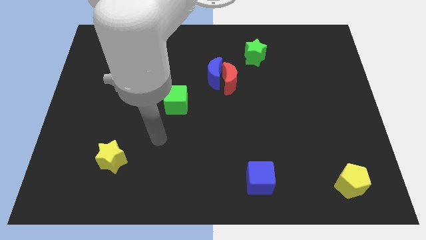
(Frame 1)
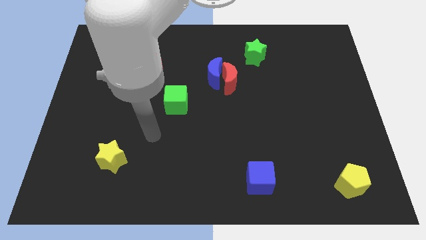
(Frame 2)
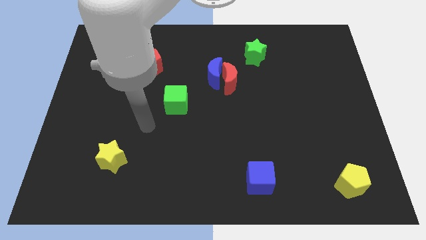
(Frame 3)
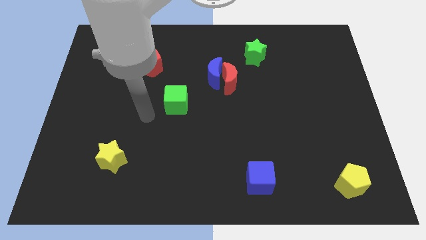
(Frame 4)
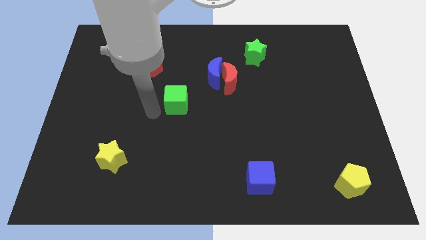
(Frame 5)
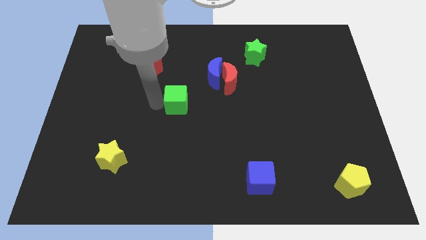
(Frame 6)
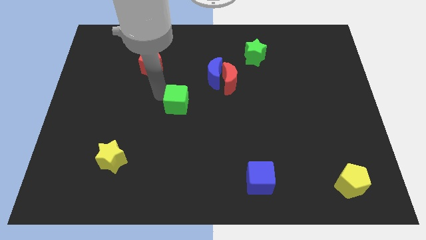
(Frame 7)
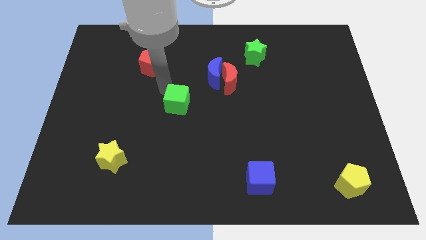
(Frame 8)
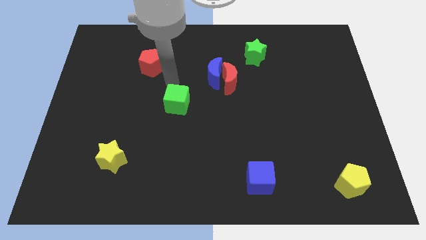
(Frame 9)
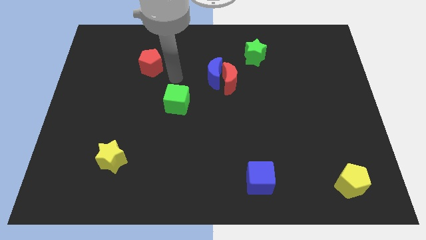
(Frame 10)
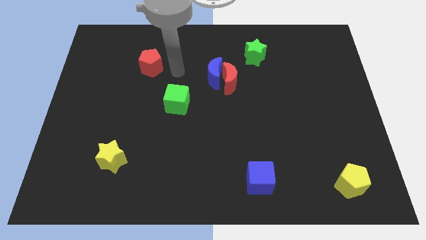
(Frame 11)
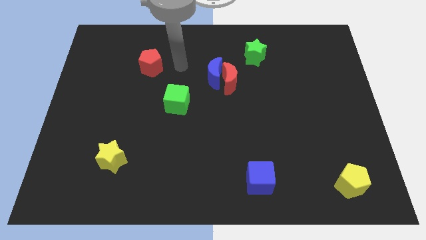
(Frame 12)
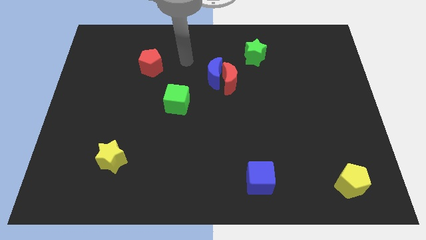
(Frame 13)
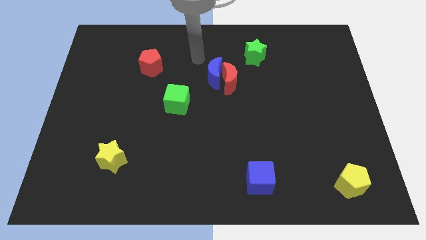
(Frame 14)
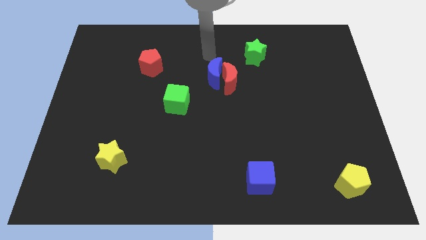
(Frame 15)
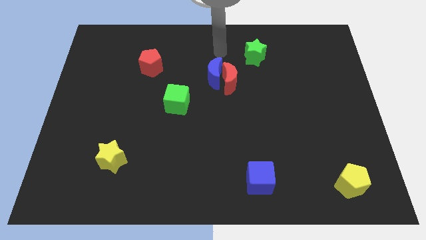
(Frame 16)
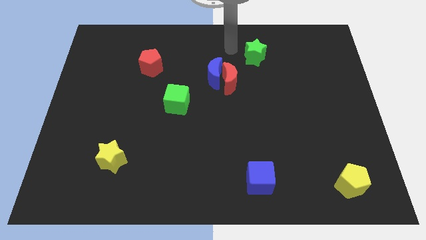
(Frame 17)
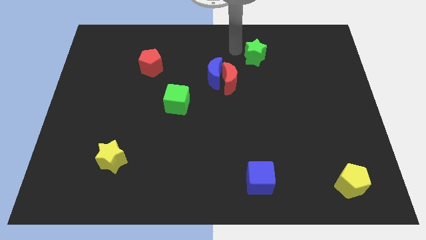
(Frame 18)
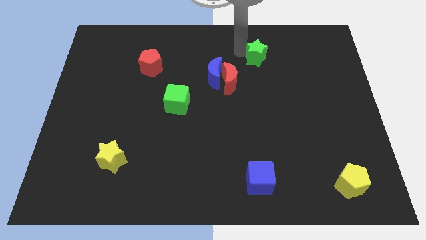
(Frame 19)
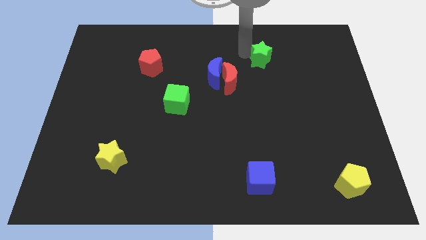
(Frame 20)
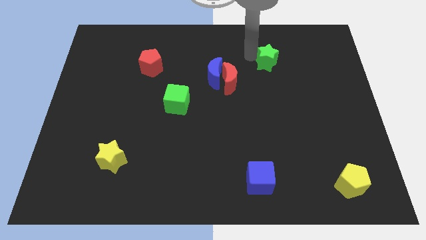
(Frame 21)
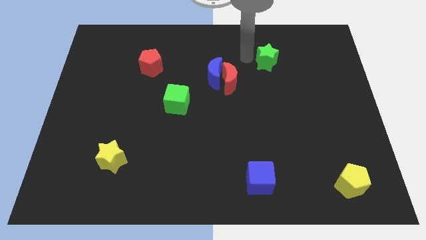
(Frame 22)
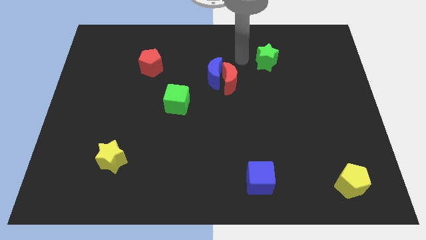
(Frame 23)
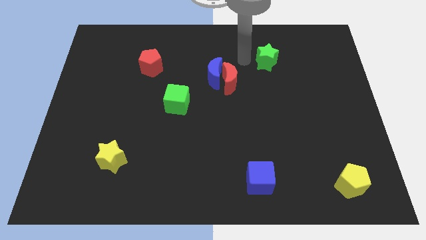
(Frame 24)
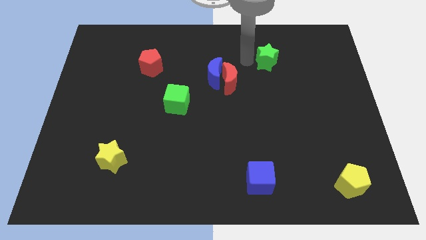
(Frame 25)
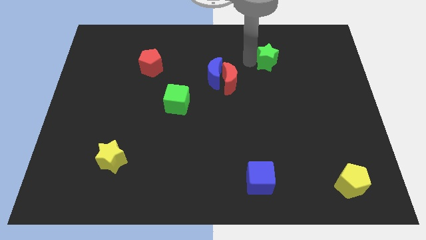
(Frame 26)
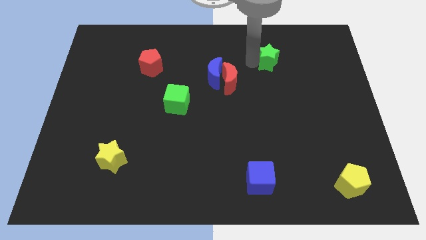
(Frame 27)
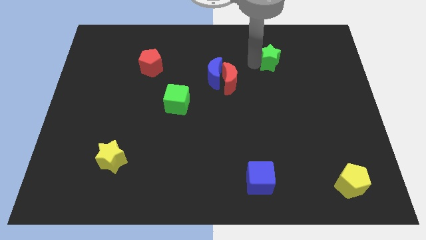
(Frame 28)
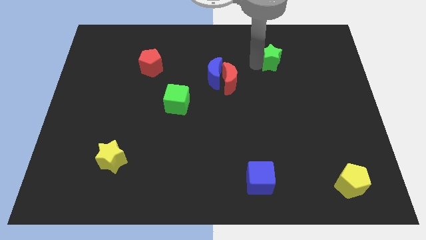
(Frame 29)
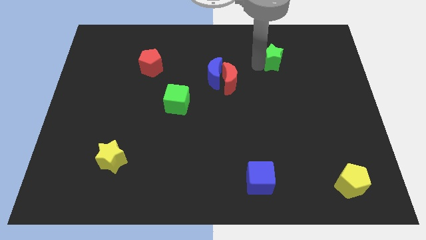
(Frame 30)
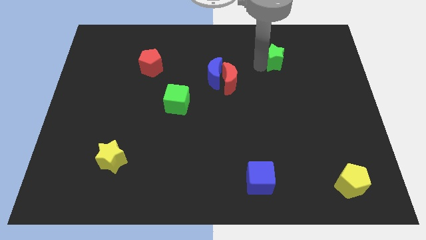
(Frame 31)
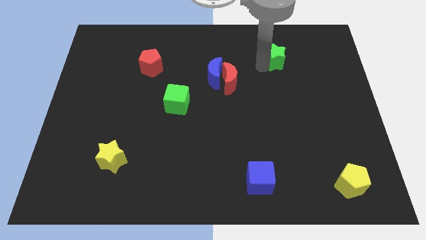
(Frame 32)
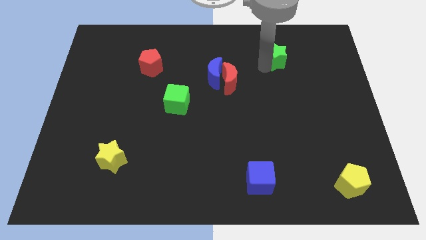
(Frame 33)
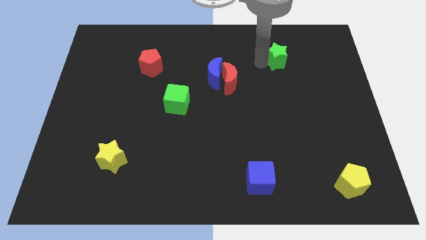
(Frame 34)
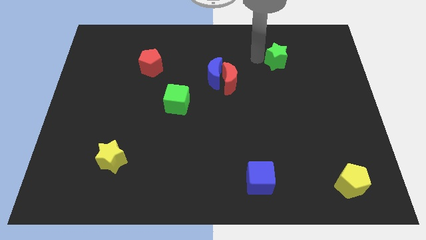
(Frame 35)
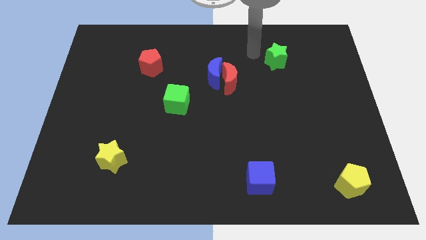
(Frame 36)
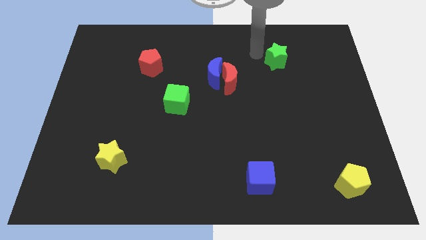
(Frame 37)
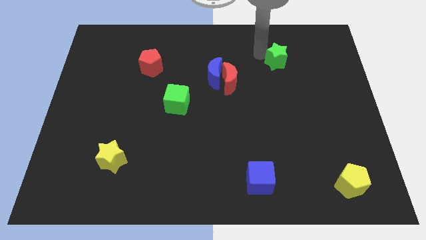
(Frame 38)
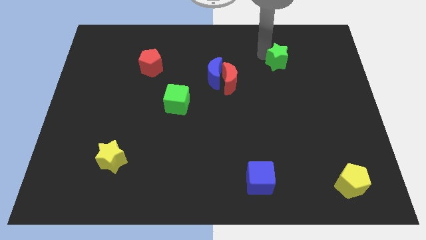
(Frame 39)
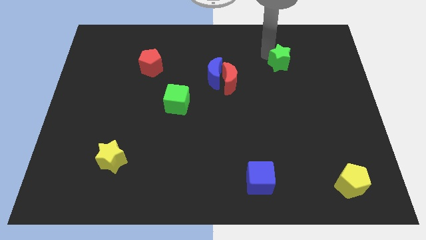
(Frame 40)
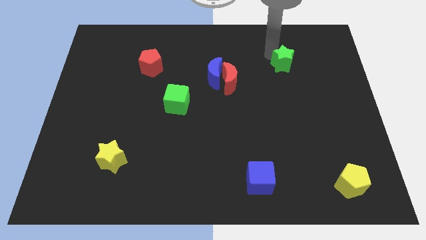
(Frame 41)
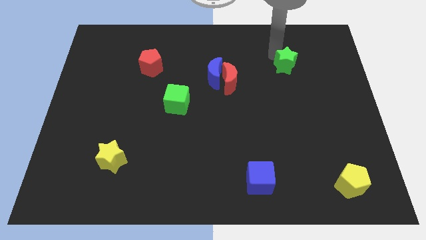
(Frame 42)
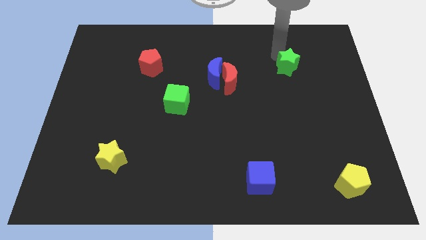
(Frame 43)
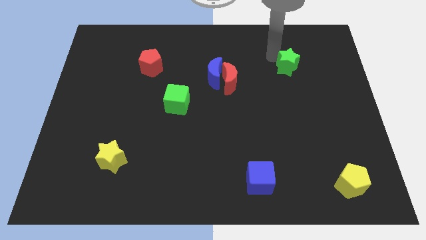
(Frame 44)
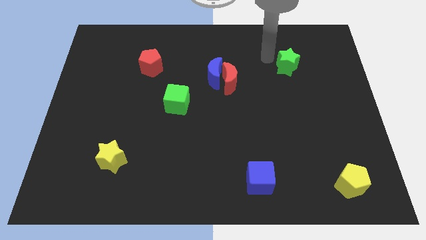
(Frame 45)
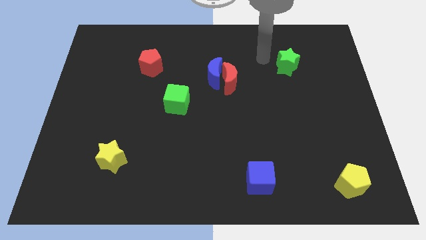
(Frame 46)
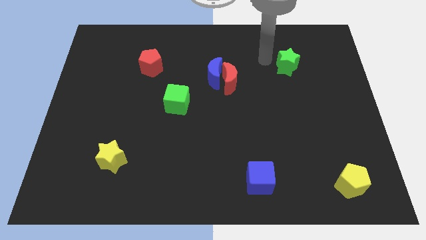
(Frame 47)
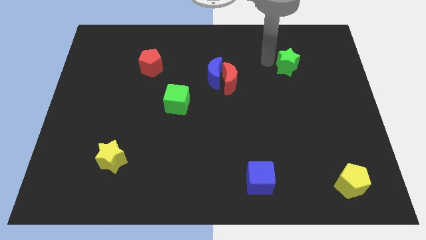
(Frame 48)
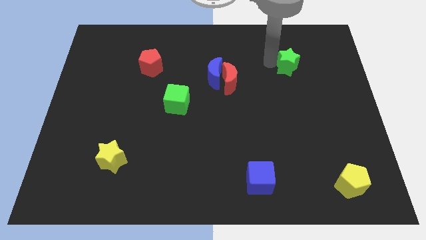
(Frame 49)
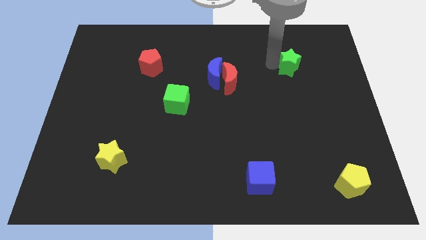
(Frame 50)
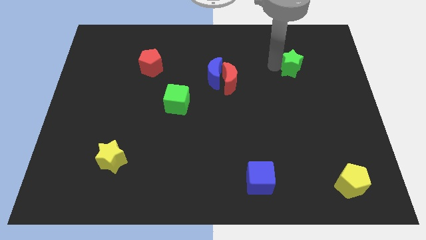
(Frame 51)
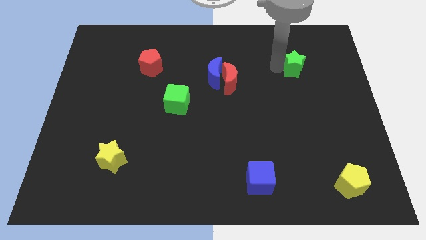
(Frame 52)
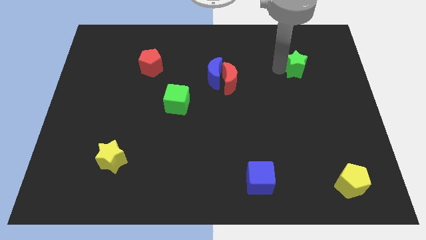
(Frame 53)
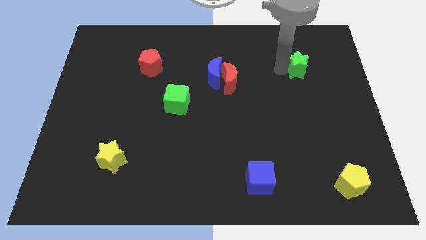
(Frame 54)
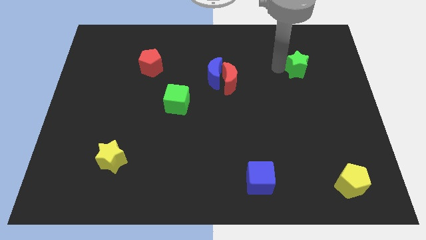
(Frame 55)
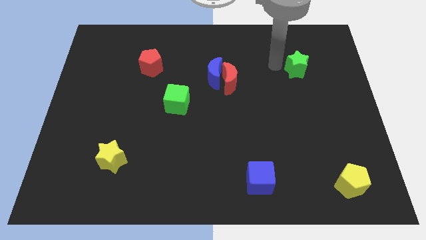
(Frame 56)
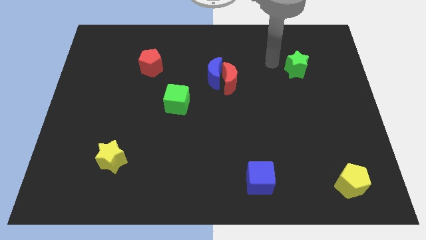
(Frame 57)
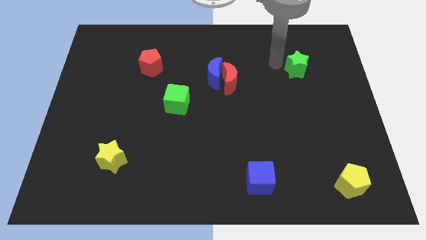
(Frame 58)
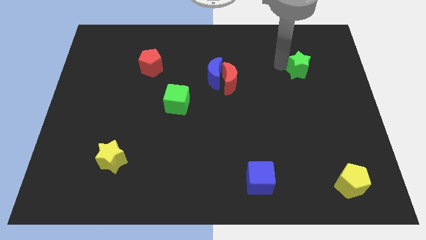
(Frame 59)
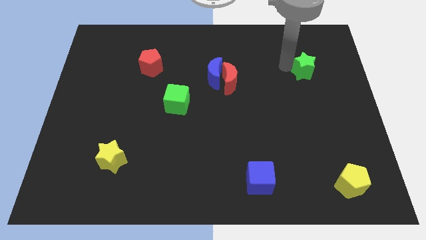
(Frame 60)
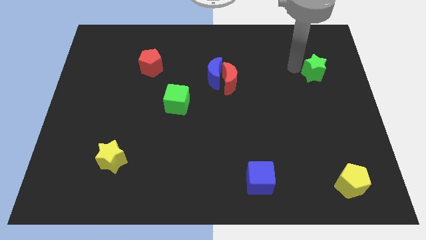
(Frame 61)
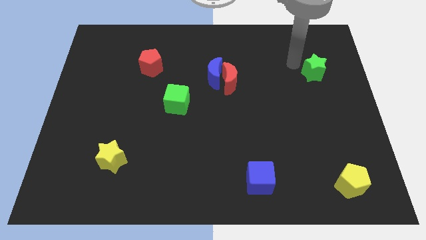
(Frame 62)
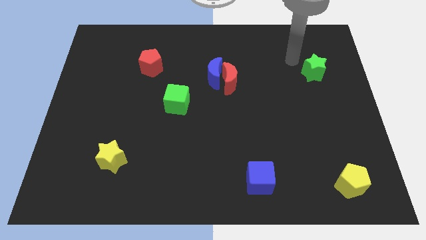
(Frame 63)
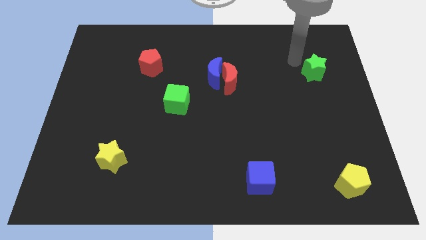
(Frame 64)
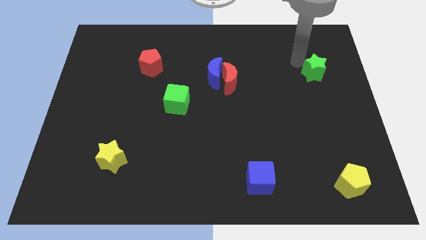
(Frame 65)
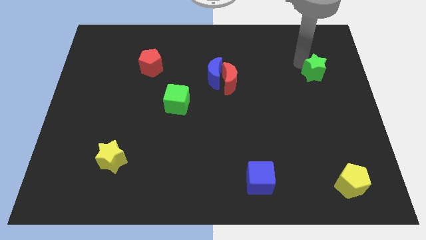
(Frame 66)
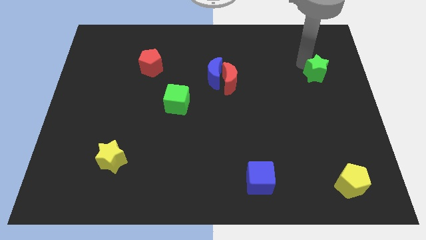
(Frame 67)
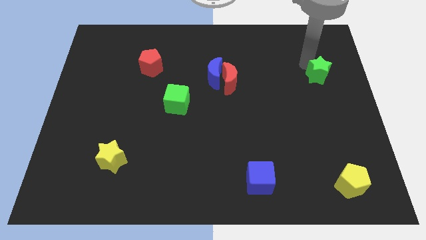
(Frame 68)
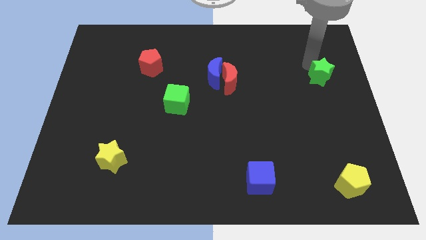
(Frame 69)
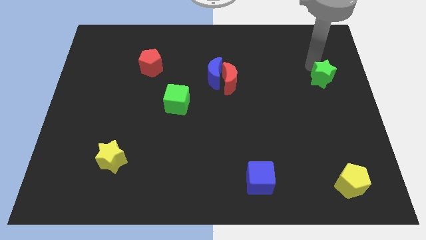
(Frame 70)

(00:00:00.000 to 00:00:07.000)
slide the green star to the right side of the board
